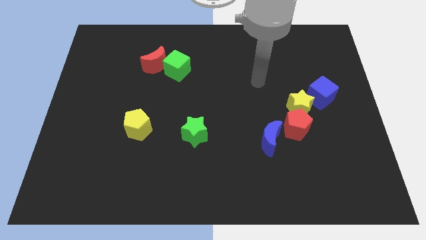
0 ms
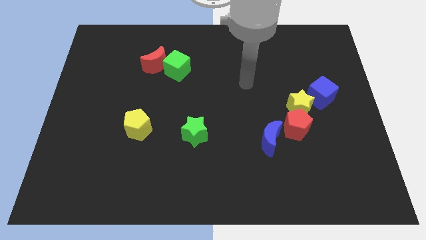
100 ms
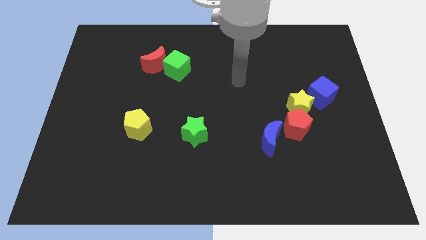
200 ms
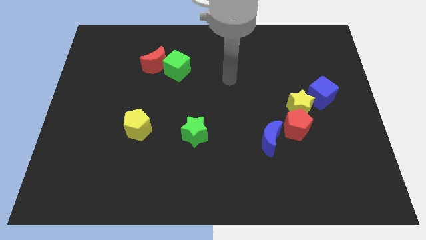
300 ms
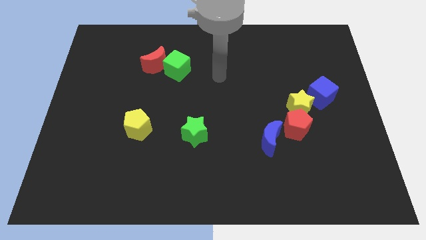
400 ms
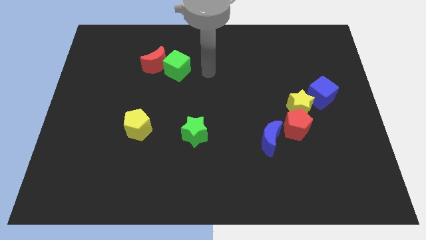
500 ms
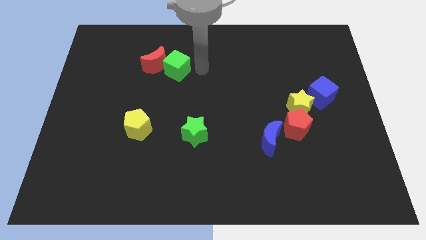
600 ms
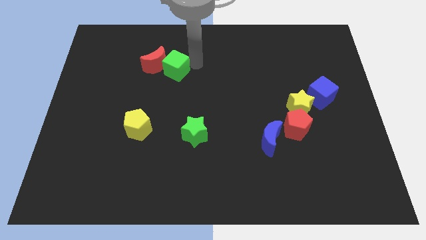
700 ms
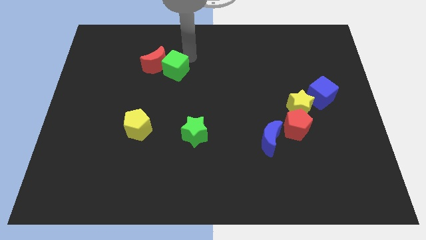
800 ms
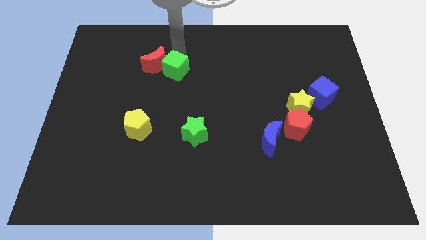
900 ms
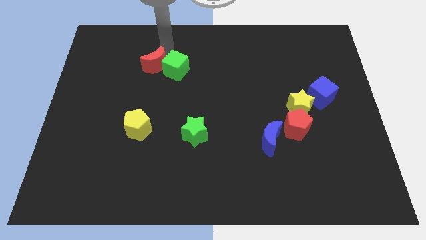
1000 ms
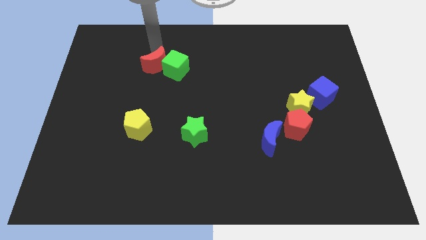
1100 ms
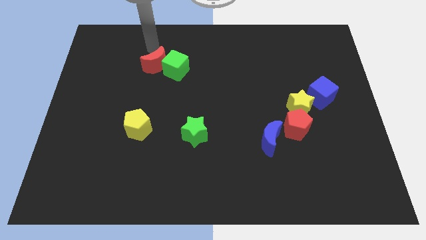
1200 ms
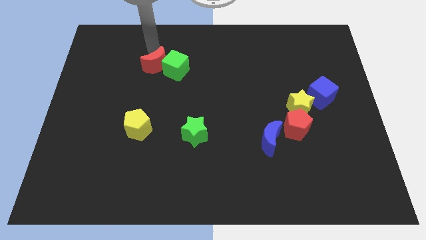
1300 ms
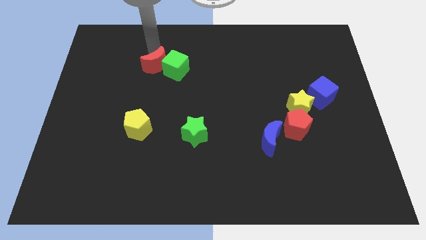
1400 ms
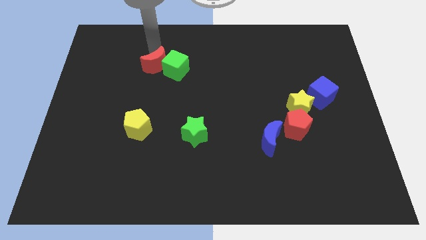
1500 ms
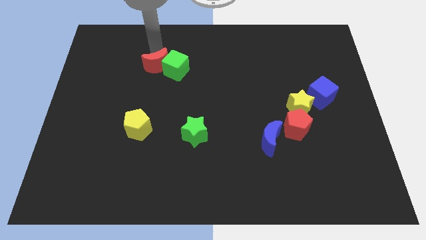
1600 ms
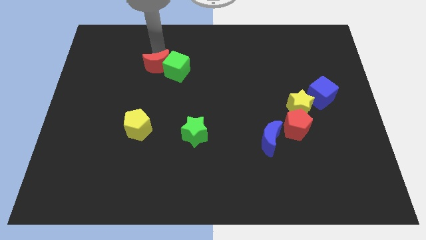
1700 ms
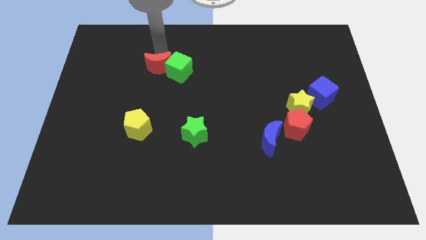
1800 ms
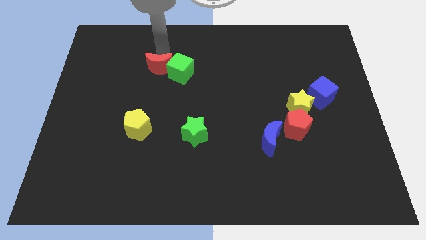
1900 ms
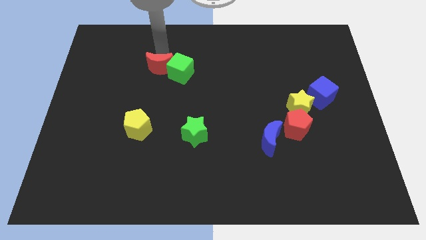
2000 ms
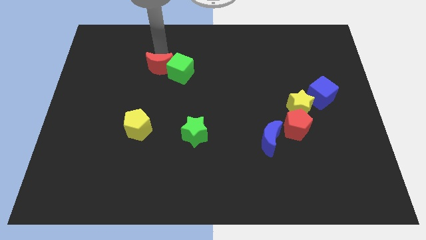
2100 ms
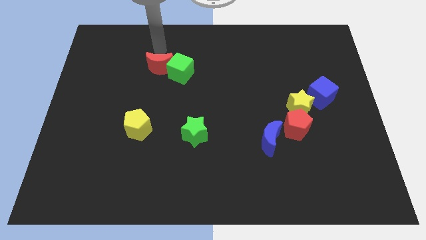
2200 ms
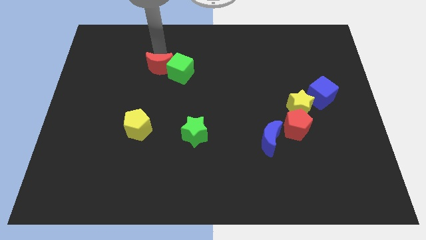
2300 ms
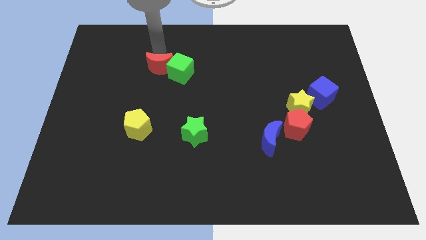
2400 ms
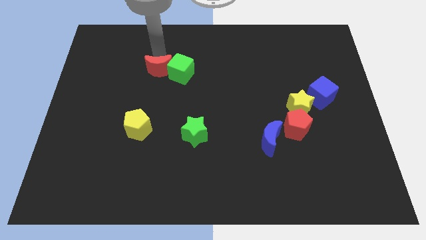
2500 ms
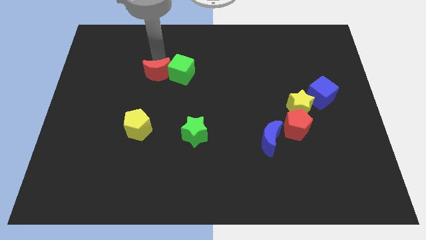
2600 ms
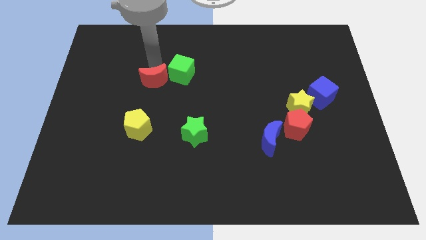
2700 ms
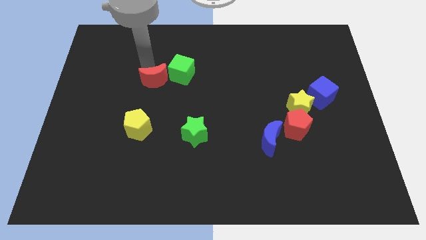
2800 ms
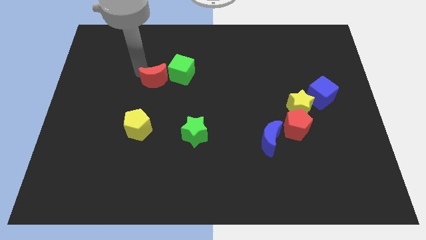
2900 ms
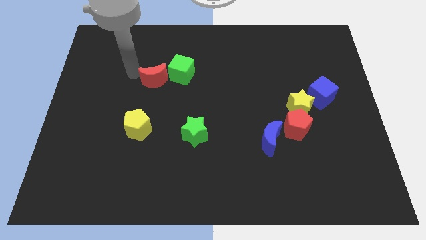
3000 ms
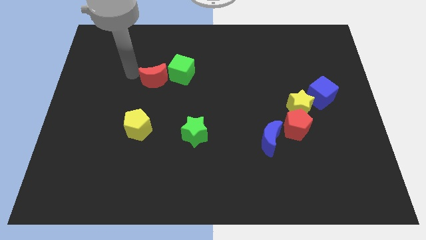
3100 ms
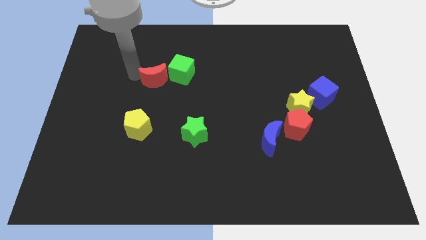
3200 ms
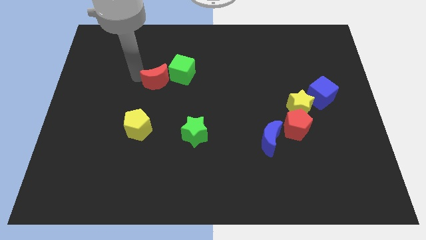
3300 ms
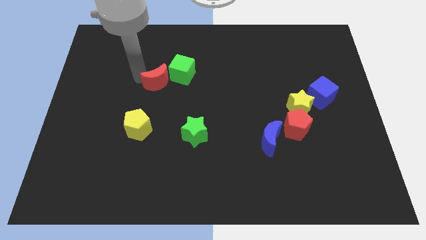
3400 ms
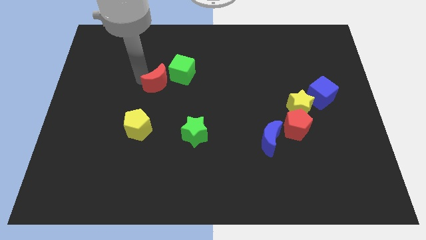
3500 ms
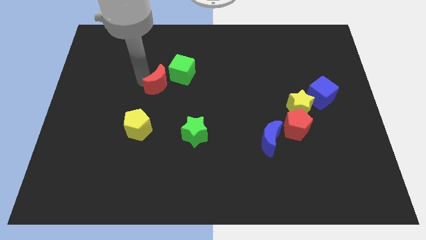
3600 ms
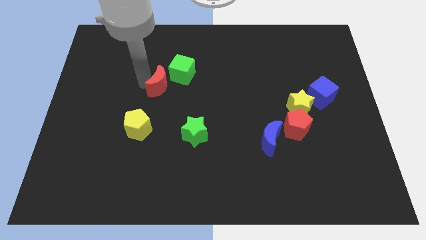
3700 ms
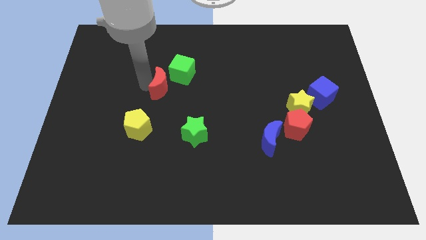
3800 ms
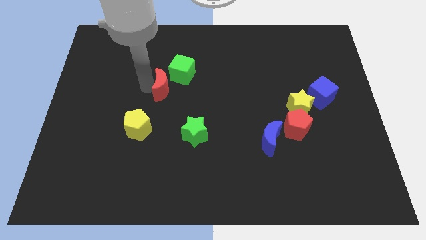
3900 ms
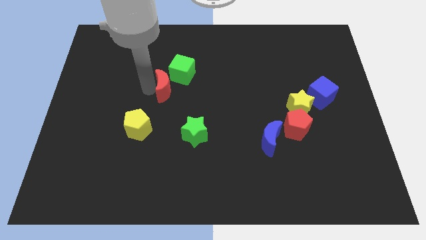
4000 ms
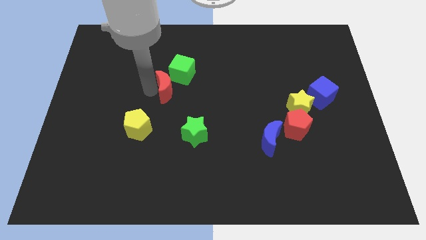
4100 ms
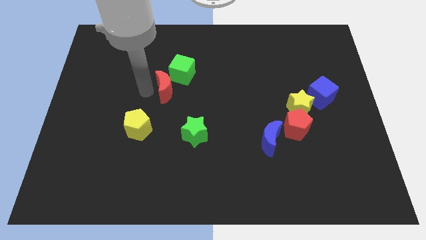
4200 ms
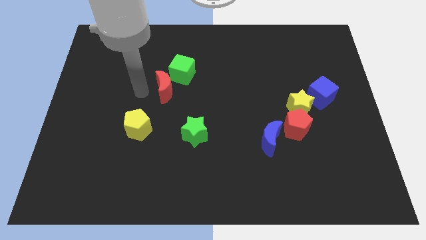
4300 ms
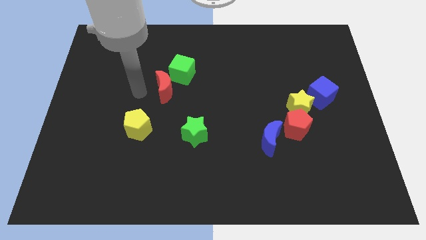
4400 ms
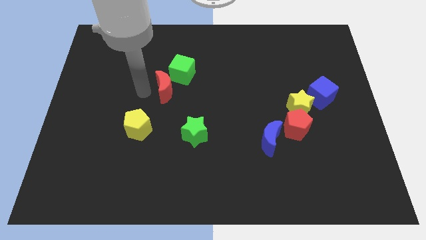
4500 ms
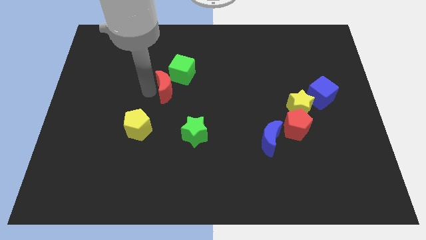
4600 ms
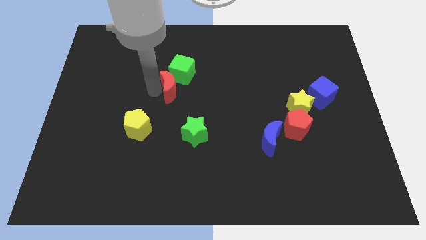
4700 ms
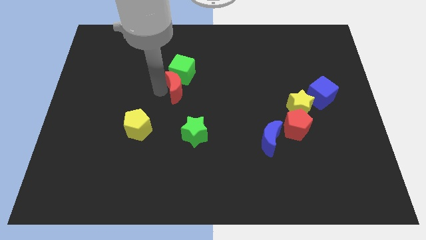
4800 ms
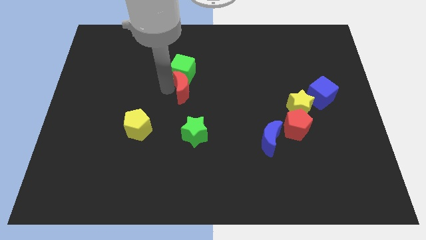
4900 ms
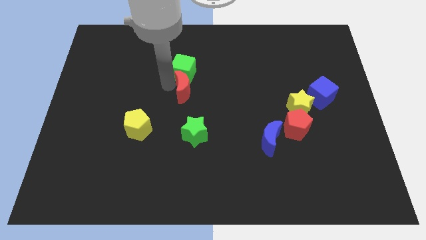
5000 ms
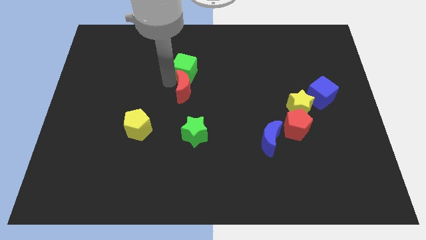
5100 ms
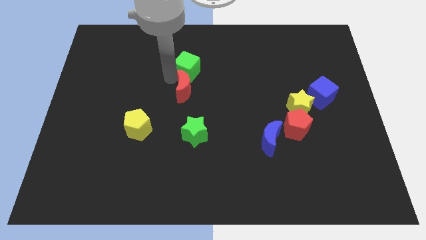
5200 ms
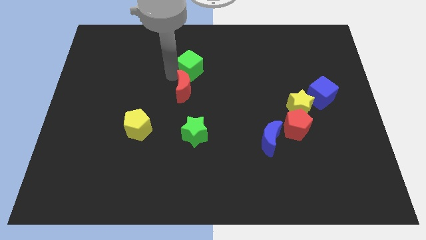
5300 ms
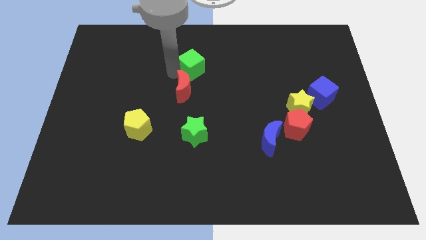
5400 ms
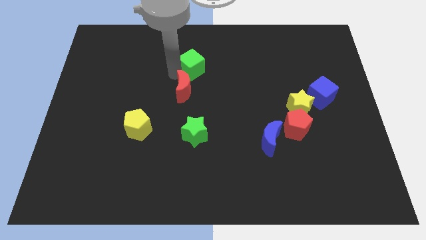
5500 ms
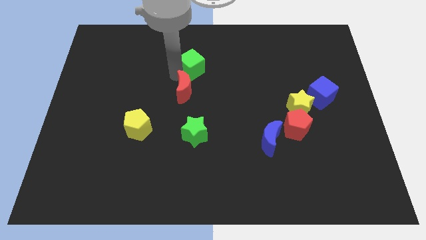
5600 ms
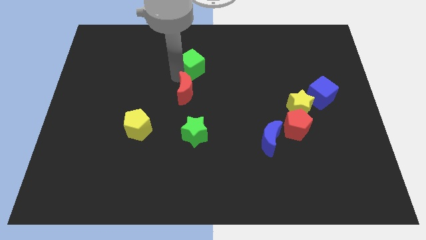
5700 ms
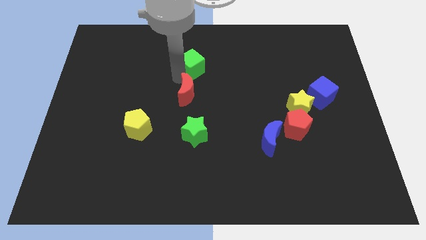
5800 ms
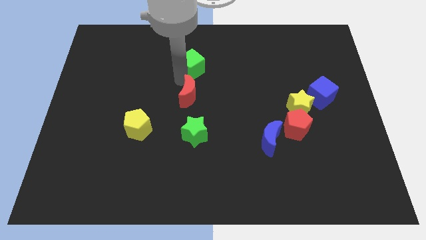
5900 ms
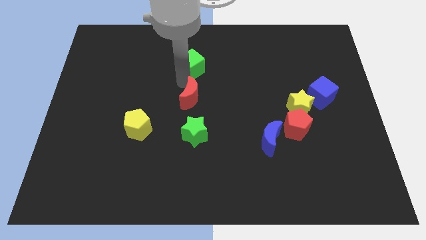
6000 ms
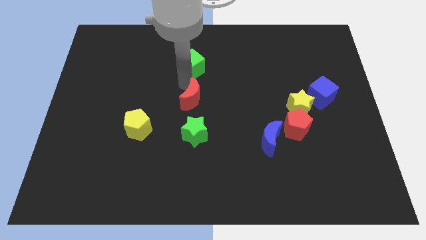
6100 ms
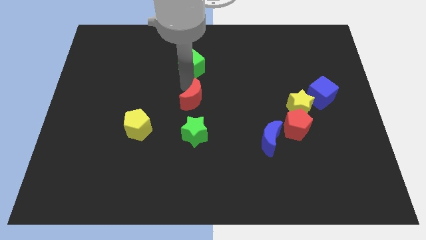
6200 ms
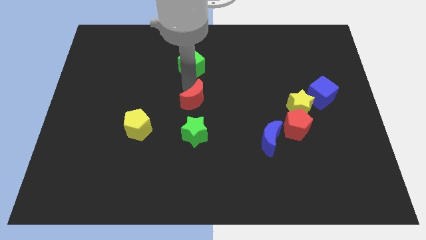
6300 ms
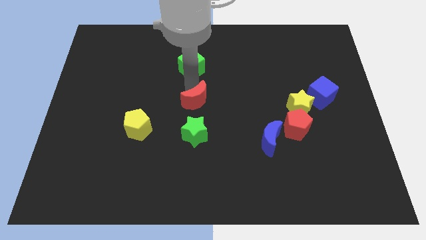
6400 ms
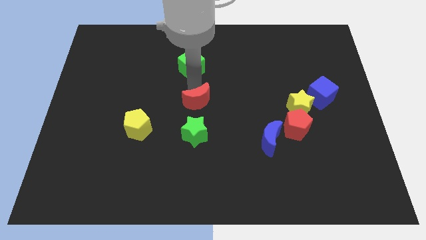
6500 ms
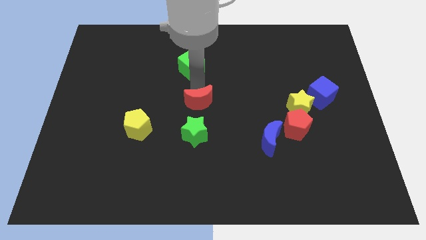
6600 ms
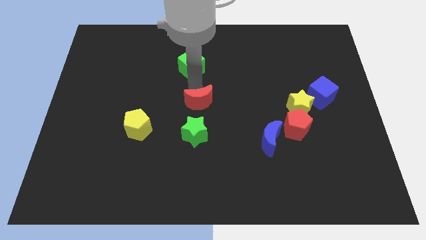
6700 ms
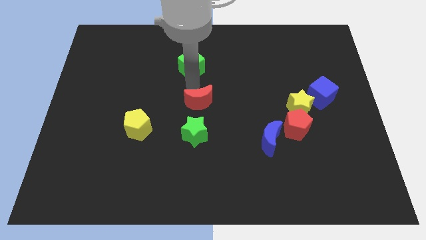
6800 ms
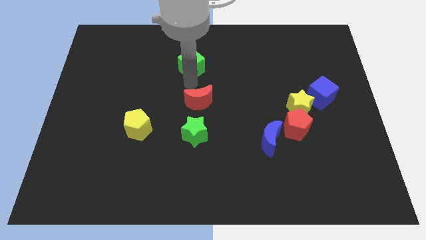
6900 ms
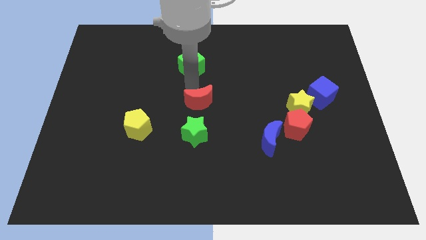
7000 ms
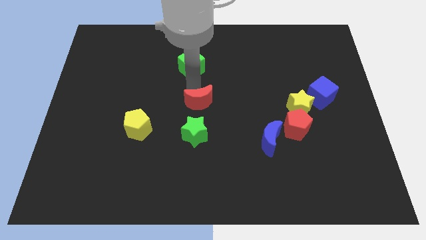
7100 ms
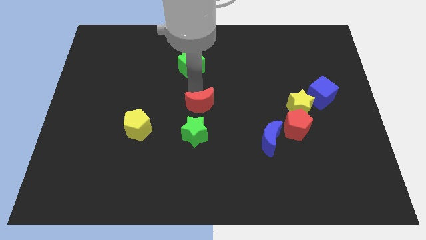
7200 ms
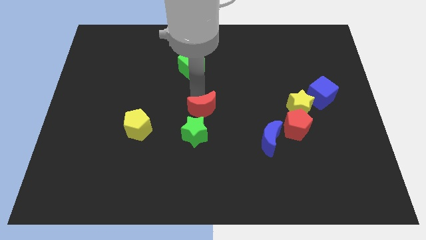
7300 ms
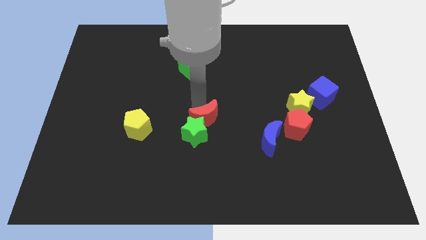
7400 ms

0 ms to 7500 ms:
slide the red moon to the right side of the green star
